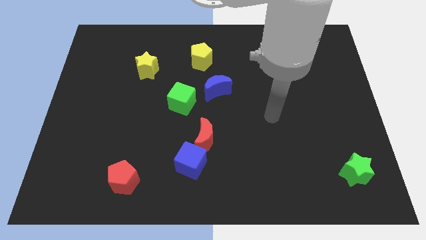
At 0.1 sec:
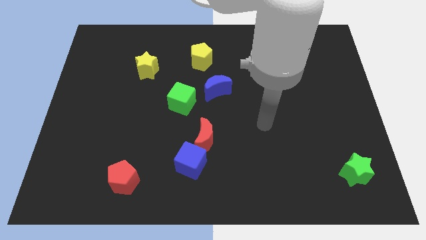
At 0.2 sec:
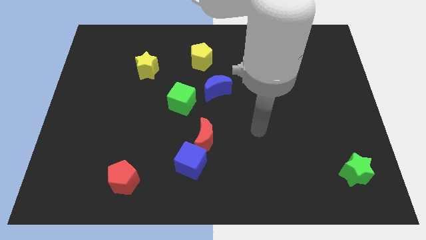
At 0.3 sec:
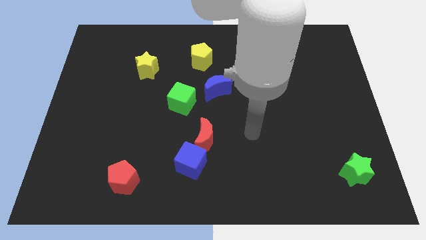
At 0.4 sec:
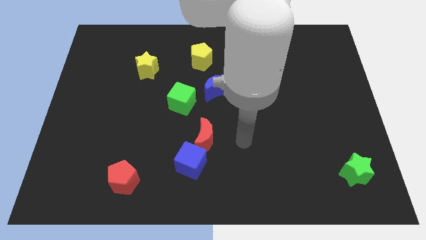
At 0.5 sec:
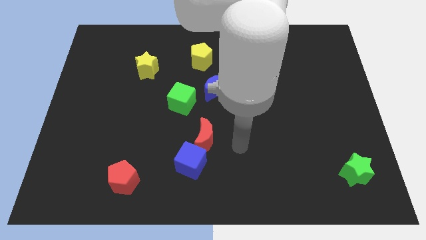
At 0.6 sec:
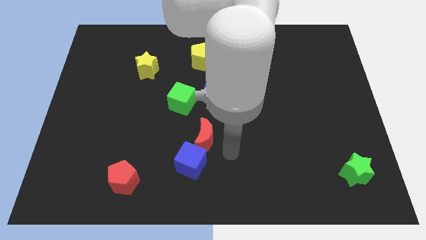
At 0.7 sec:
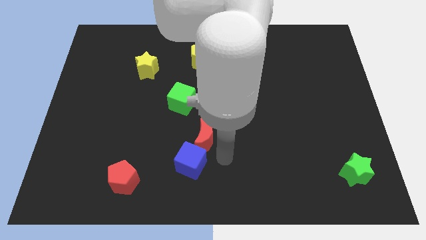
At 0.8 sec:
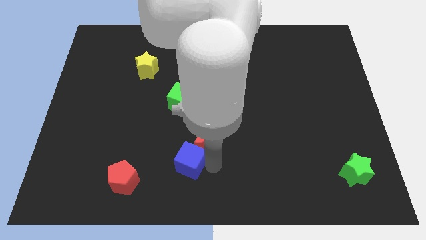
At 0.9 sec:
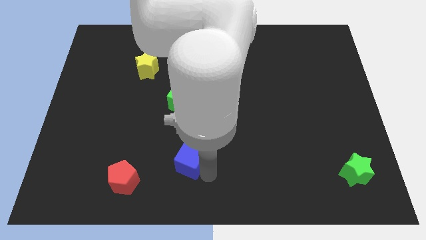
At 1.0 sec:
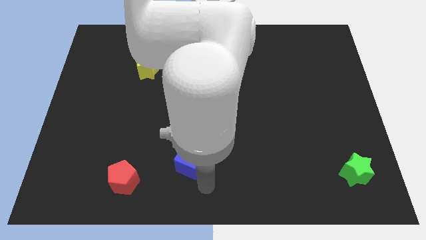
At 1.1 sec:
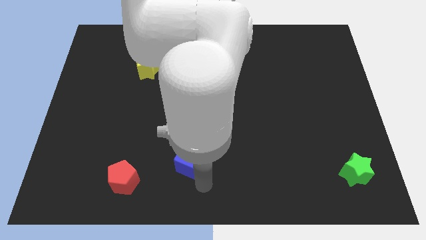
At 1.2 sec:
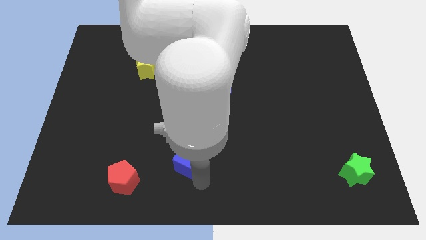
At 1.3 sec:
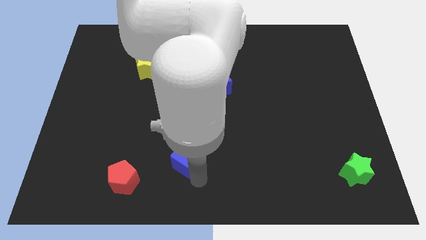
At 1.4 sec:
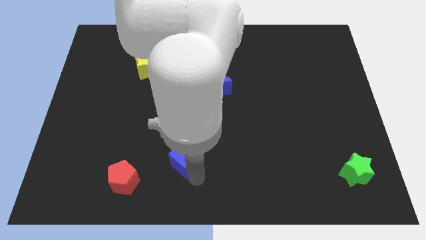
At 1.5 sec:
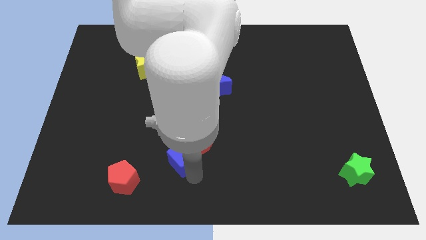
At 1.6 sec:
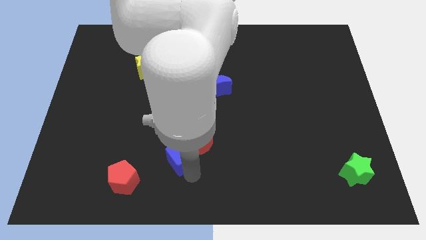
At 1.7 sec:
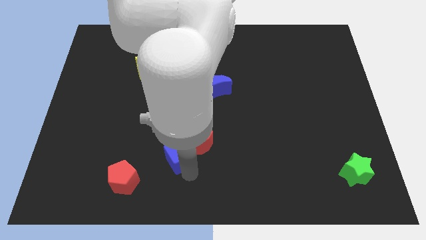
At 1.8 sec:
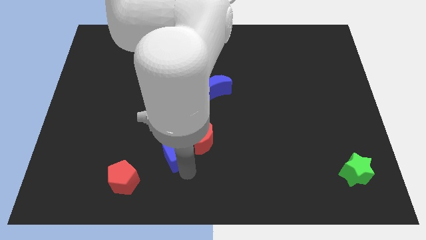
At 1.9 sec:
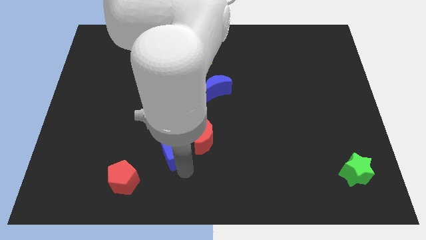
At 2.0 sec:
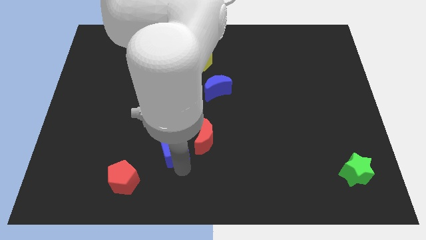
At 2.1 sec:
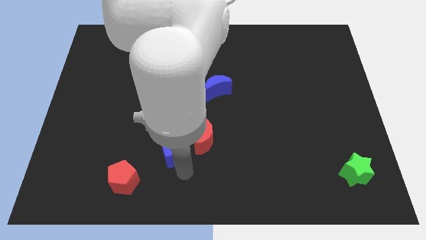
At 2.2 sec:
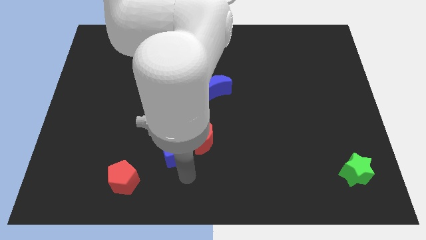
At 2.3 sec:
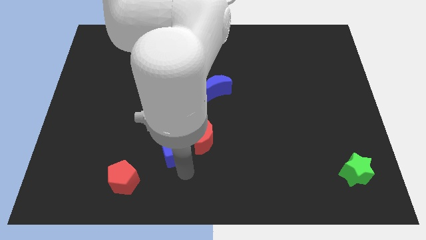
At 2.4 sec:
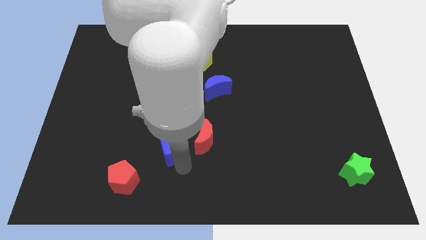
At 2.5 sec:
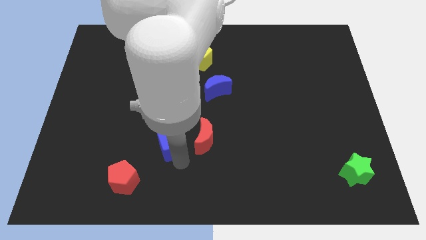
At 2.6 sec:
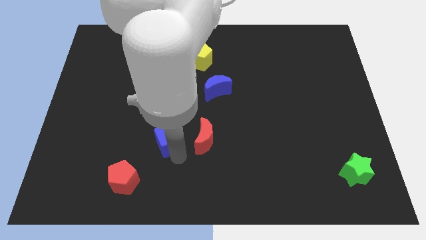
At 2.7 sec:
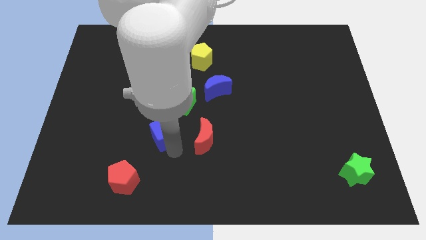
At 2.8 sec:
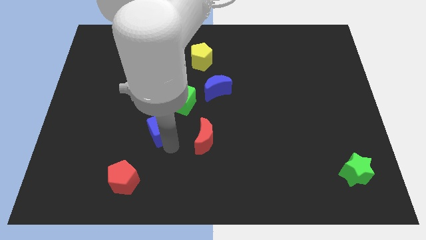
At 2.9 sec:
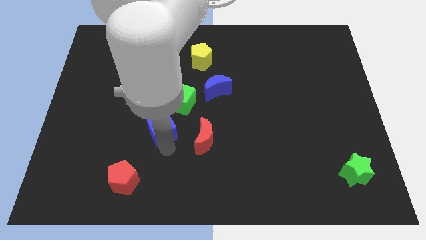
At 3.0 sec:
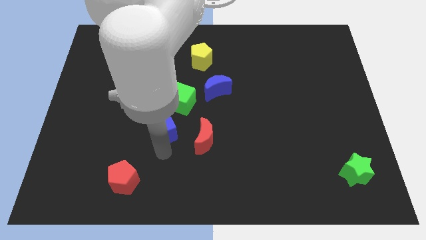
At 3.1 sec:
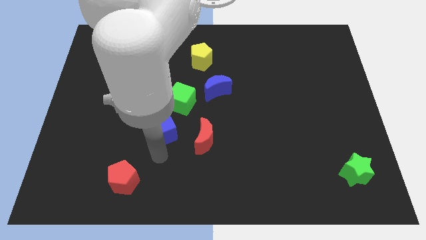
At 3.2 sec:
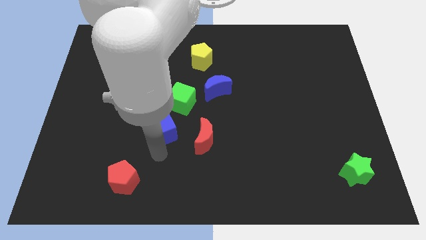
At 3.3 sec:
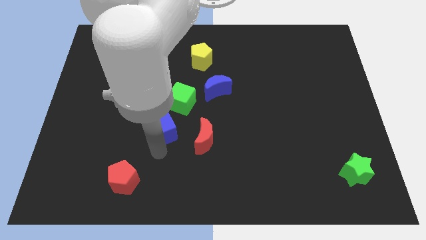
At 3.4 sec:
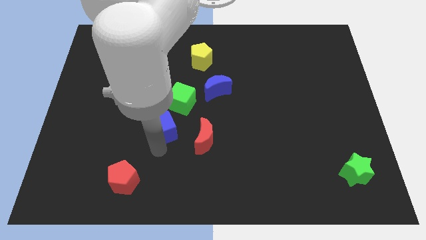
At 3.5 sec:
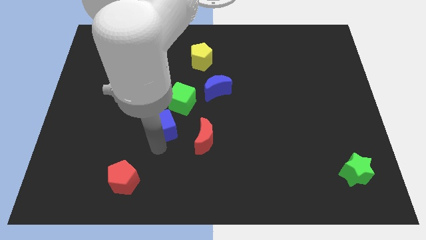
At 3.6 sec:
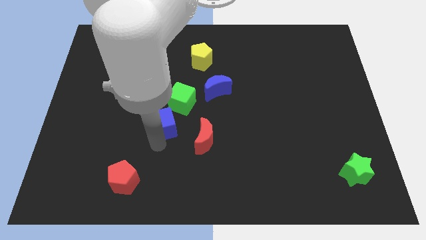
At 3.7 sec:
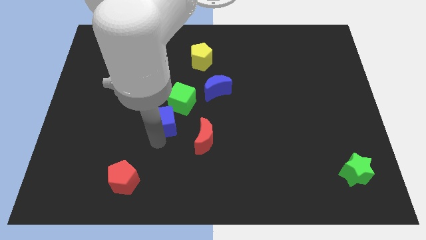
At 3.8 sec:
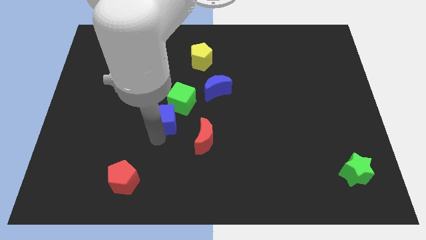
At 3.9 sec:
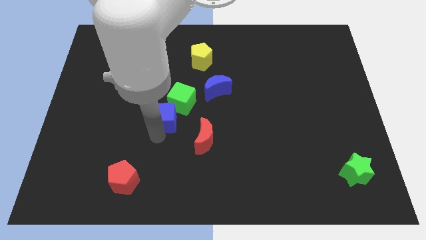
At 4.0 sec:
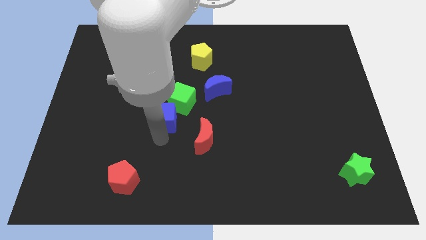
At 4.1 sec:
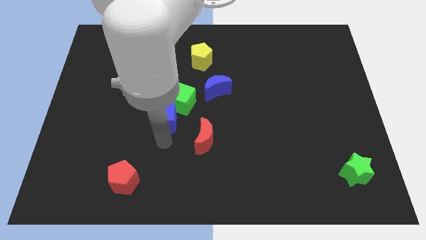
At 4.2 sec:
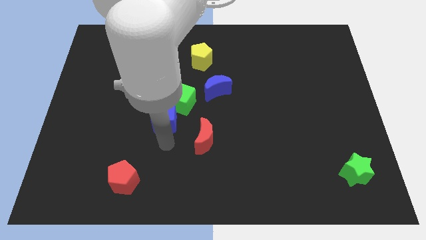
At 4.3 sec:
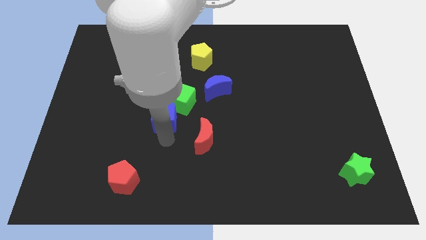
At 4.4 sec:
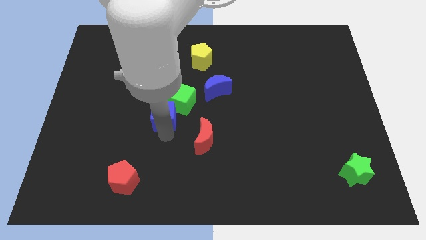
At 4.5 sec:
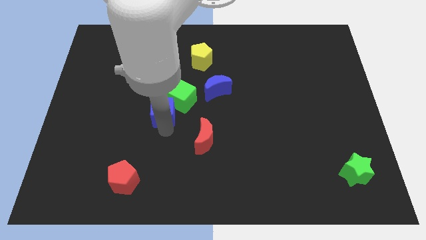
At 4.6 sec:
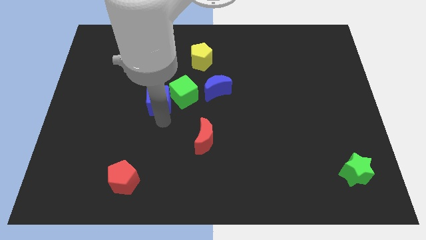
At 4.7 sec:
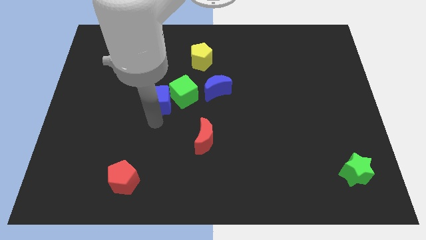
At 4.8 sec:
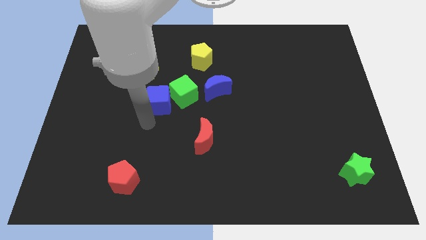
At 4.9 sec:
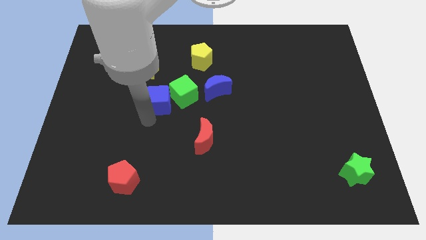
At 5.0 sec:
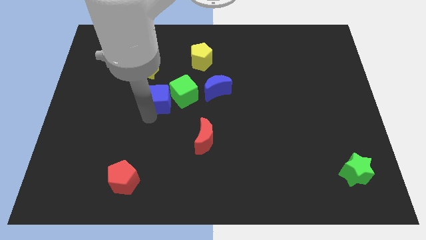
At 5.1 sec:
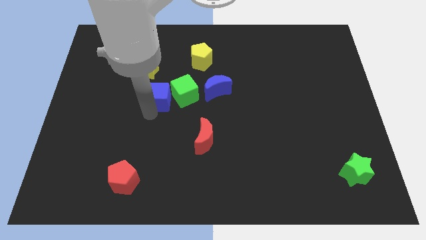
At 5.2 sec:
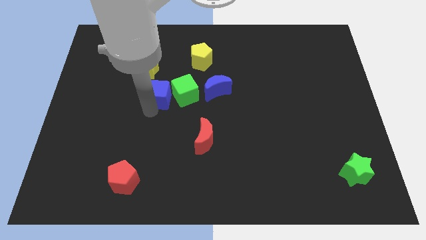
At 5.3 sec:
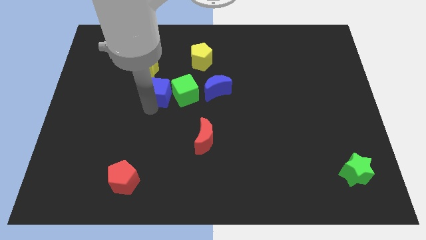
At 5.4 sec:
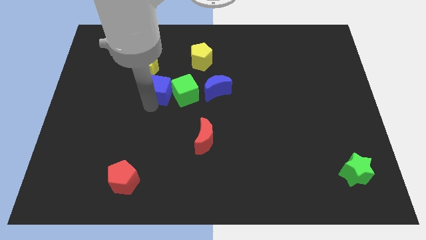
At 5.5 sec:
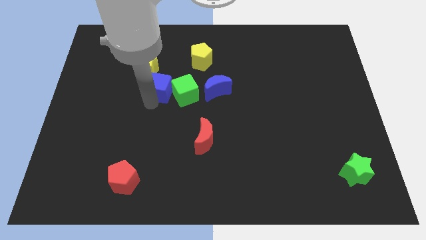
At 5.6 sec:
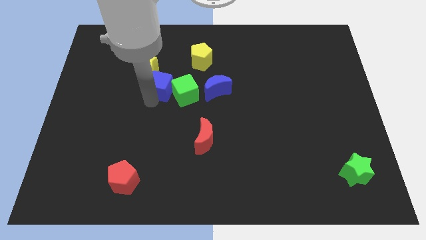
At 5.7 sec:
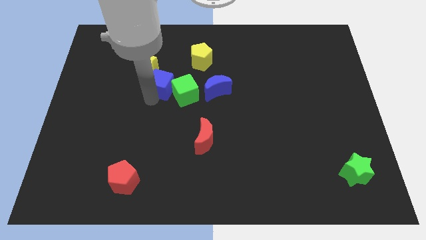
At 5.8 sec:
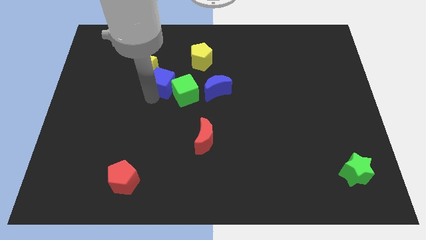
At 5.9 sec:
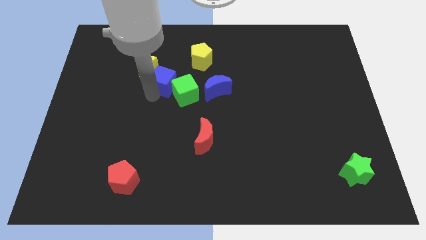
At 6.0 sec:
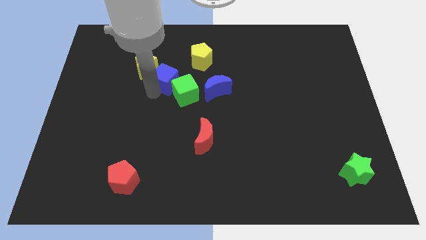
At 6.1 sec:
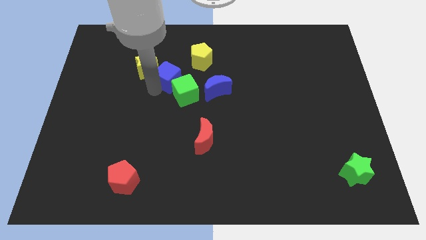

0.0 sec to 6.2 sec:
push the blue cube above the green cube

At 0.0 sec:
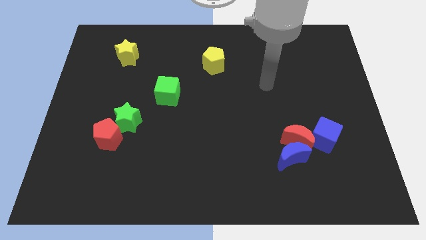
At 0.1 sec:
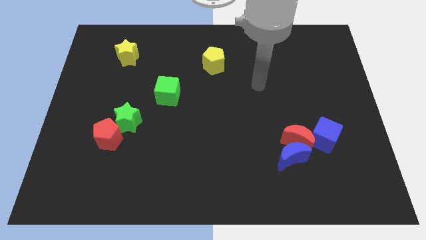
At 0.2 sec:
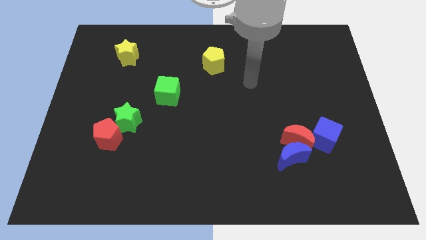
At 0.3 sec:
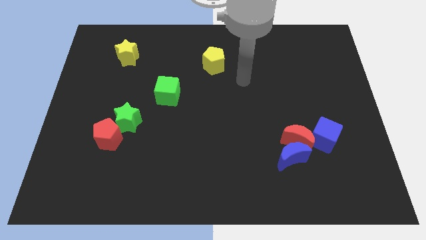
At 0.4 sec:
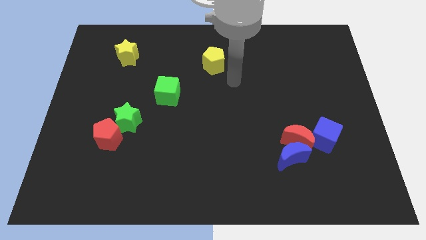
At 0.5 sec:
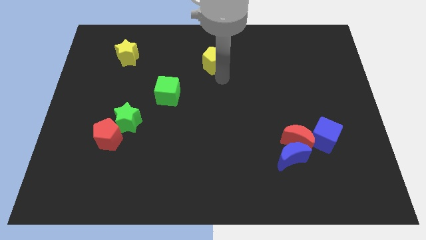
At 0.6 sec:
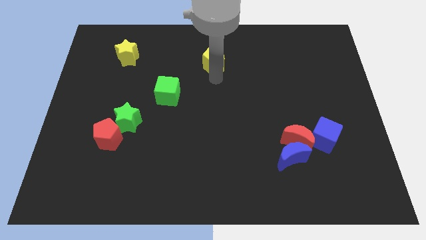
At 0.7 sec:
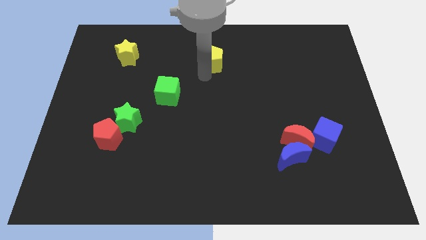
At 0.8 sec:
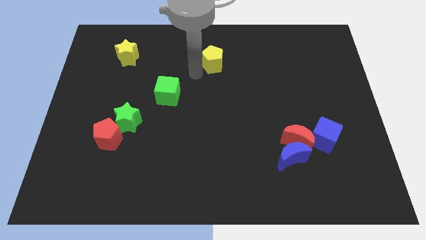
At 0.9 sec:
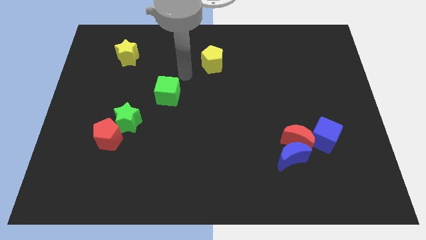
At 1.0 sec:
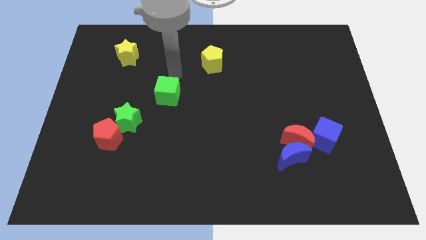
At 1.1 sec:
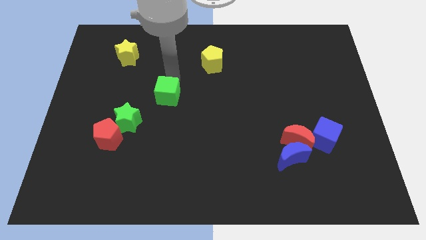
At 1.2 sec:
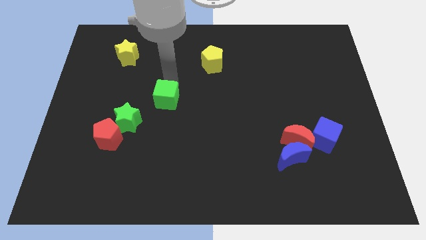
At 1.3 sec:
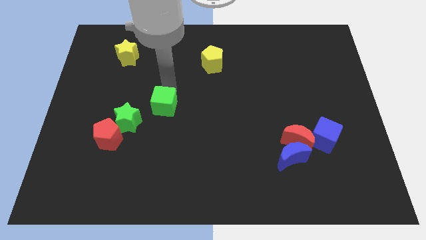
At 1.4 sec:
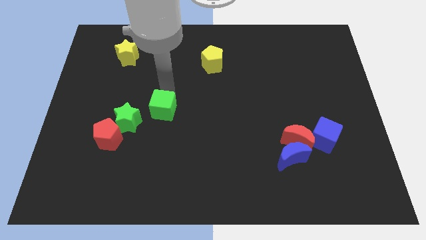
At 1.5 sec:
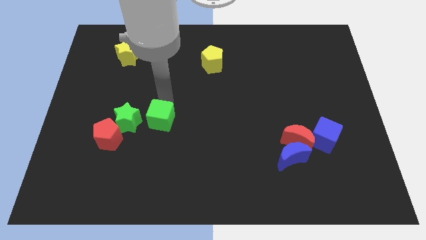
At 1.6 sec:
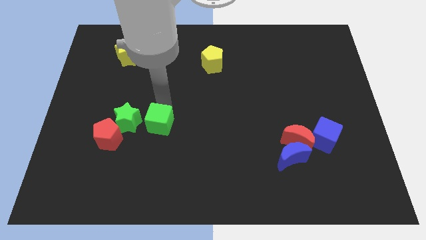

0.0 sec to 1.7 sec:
move the green cube to the right of the red pentagon
